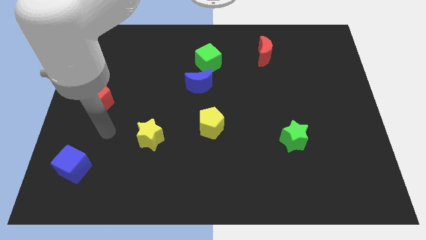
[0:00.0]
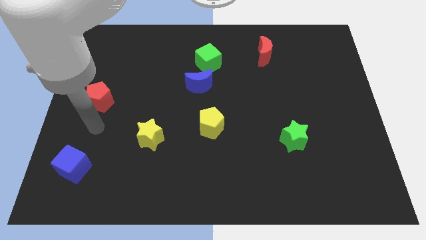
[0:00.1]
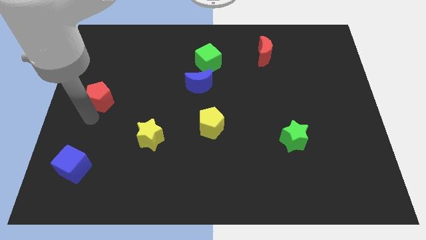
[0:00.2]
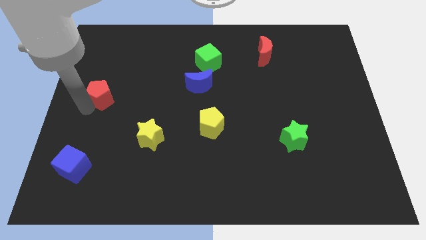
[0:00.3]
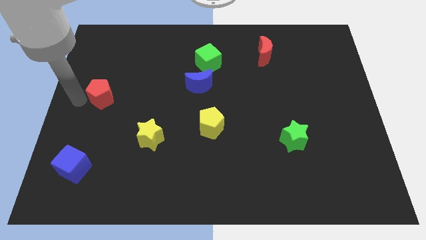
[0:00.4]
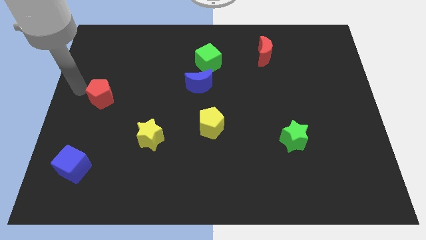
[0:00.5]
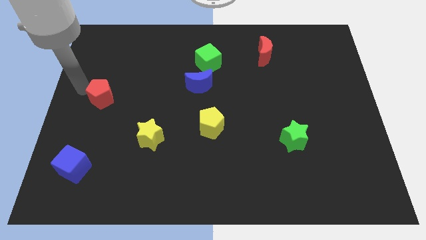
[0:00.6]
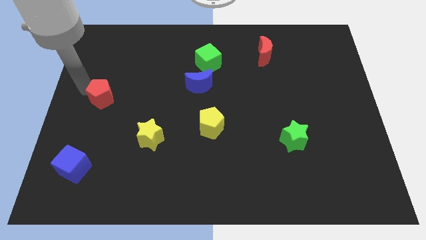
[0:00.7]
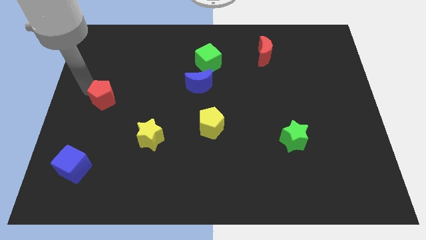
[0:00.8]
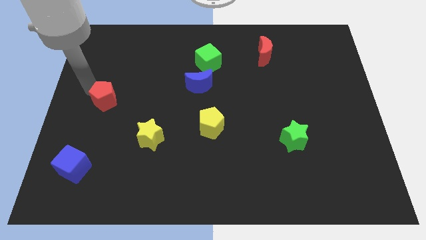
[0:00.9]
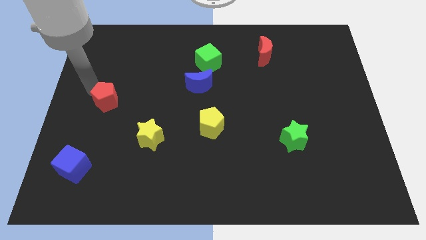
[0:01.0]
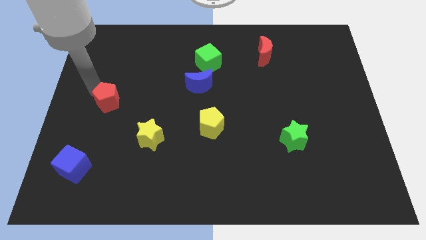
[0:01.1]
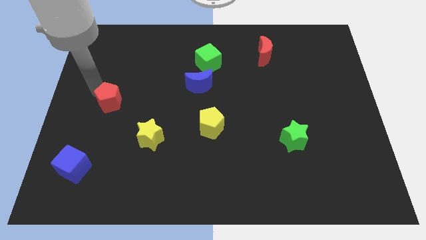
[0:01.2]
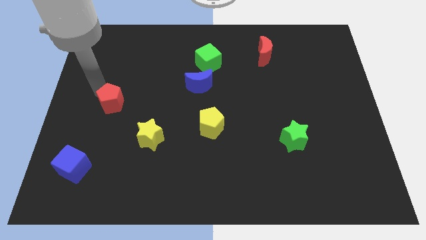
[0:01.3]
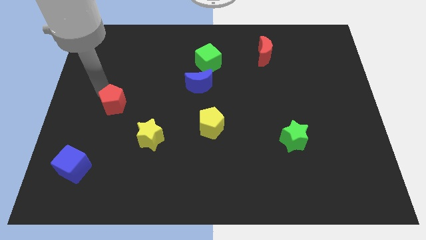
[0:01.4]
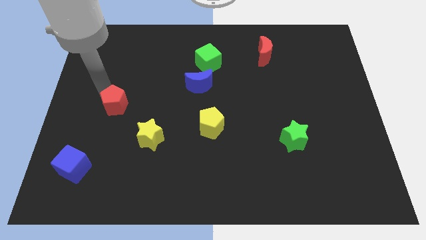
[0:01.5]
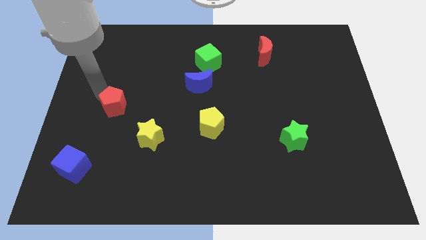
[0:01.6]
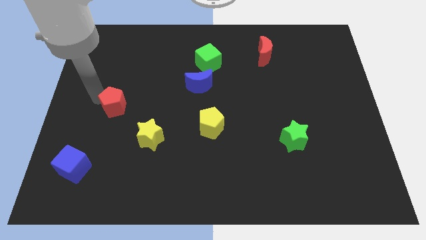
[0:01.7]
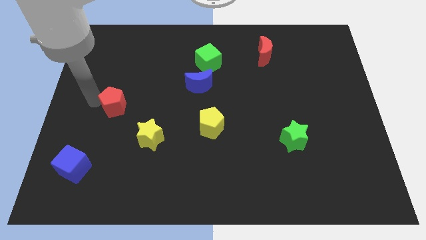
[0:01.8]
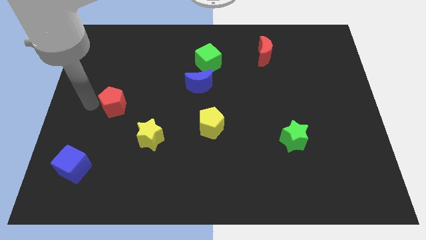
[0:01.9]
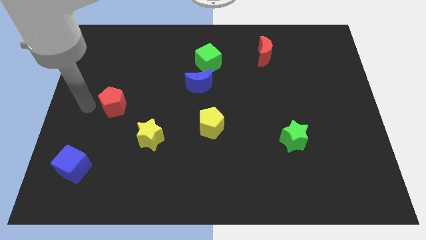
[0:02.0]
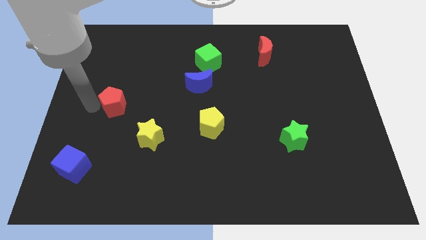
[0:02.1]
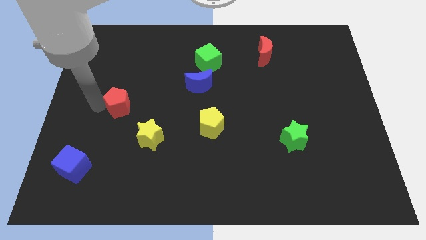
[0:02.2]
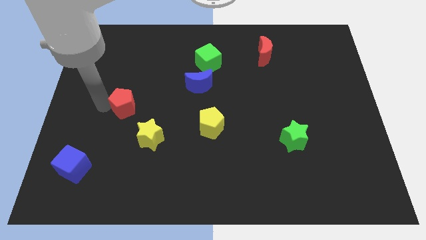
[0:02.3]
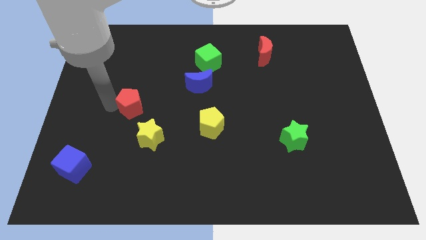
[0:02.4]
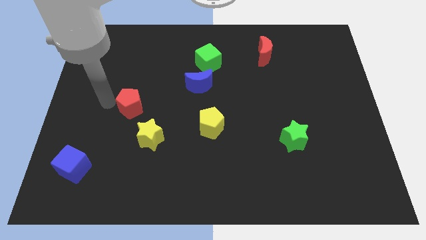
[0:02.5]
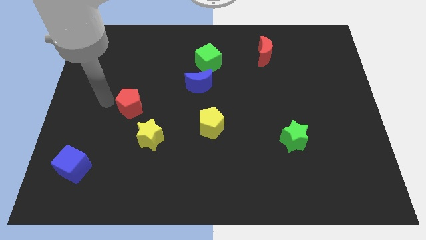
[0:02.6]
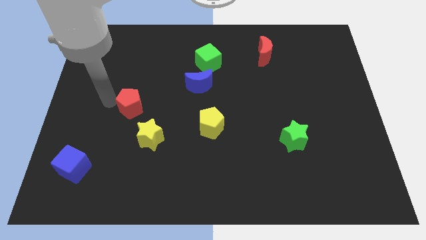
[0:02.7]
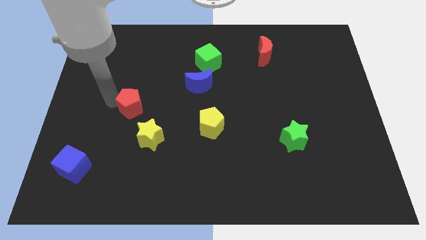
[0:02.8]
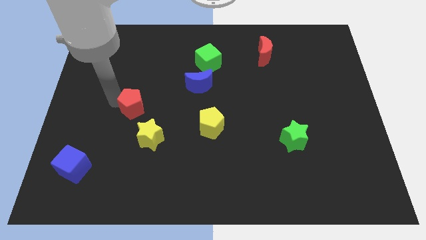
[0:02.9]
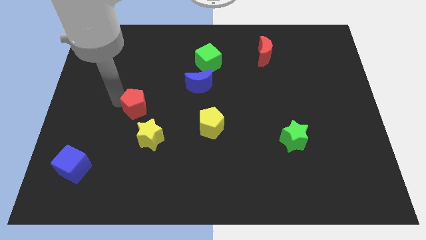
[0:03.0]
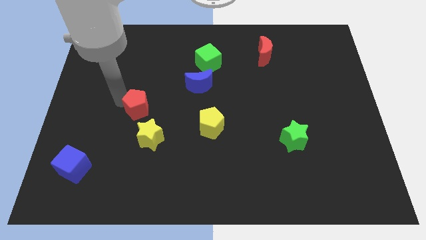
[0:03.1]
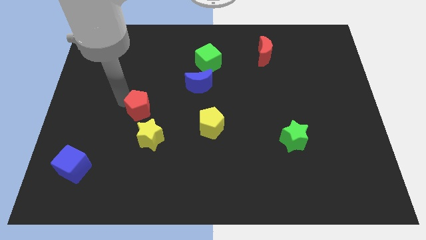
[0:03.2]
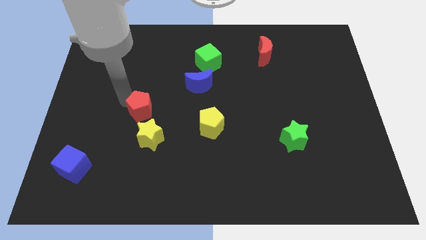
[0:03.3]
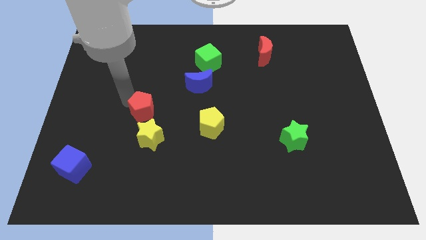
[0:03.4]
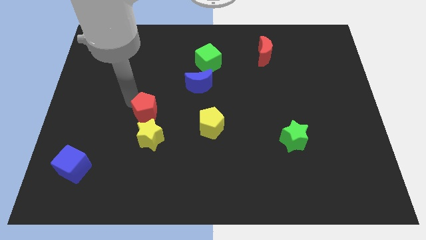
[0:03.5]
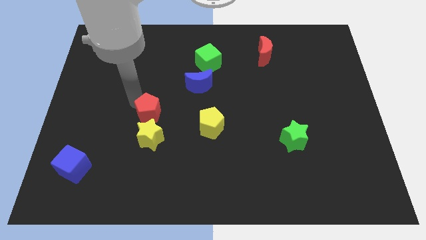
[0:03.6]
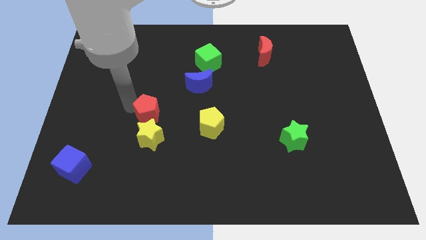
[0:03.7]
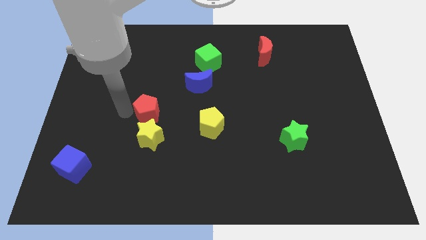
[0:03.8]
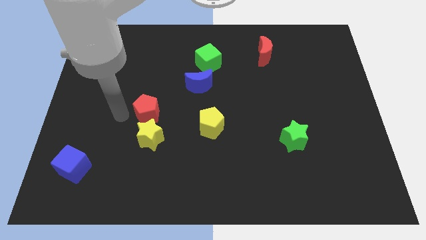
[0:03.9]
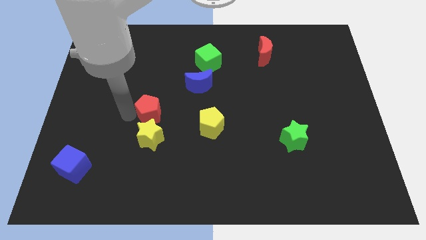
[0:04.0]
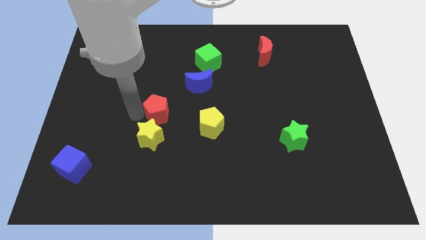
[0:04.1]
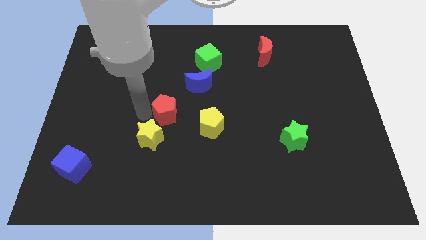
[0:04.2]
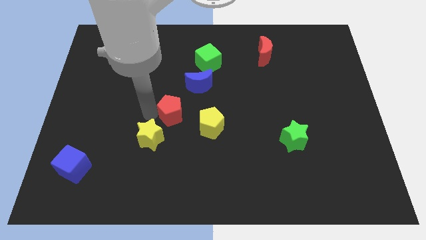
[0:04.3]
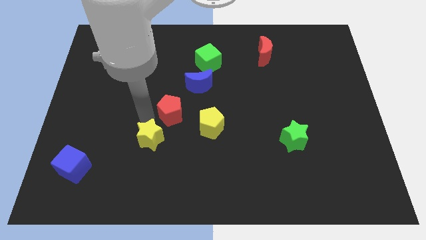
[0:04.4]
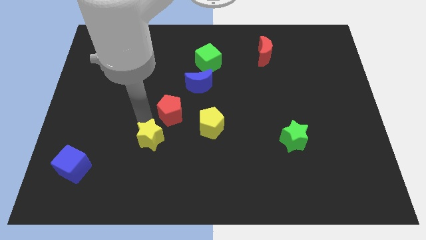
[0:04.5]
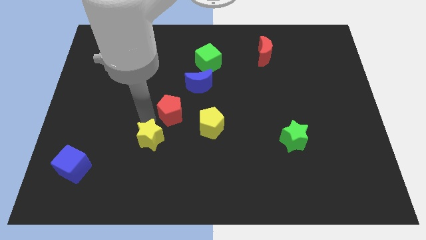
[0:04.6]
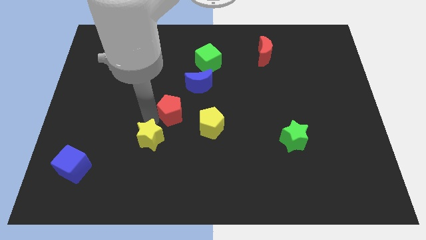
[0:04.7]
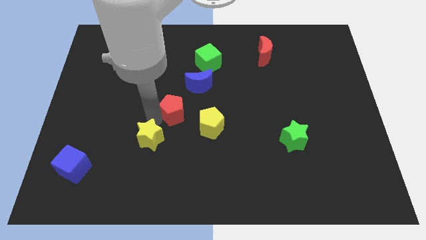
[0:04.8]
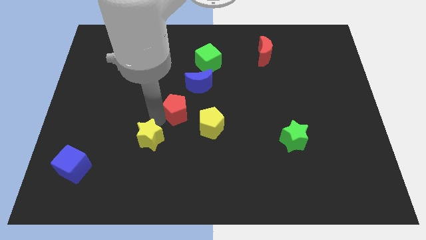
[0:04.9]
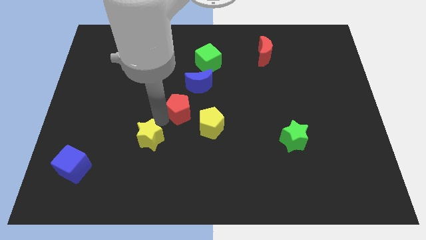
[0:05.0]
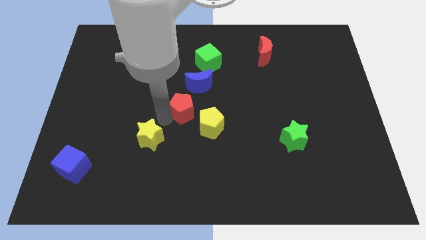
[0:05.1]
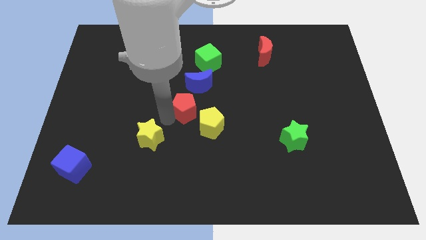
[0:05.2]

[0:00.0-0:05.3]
slide the red pentagon to the right

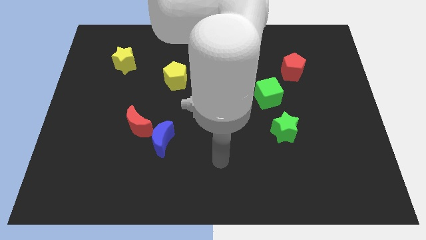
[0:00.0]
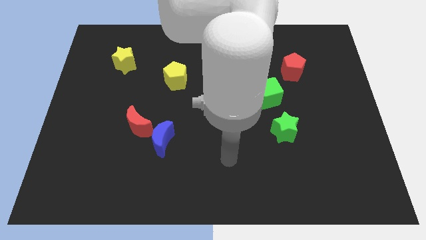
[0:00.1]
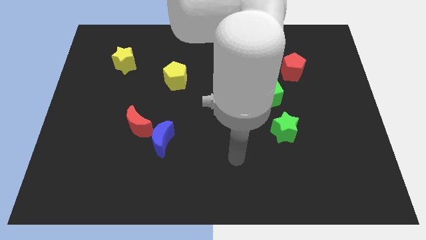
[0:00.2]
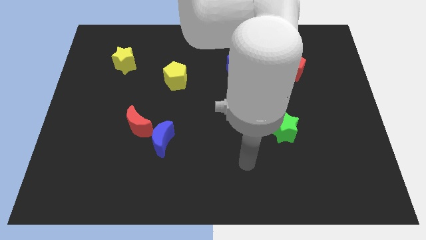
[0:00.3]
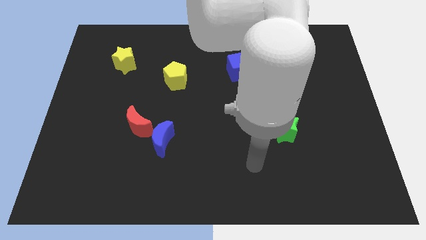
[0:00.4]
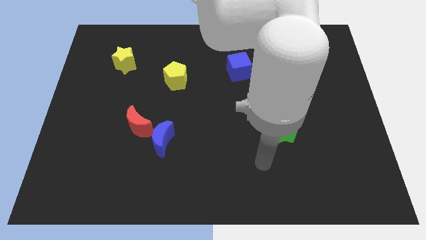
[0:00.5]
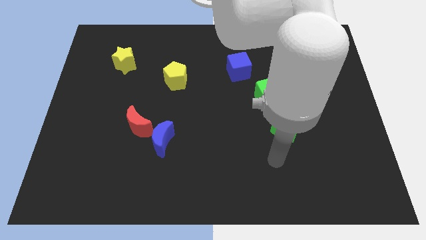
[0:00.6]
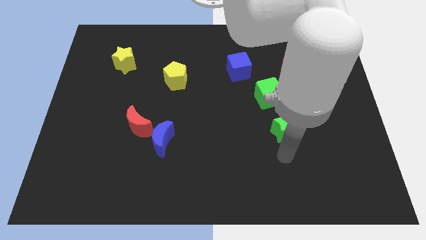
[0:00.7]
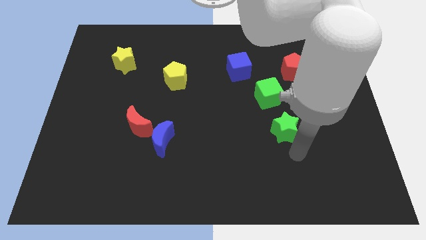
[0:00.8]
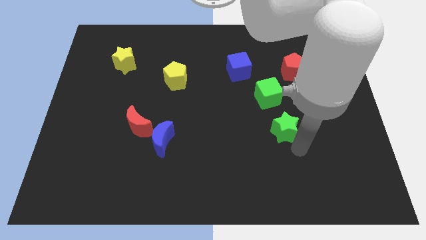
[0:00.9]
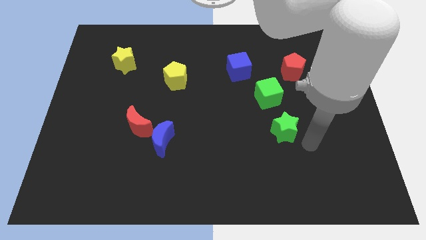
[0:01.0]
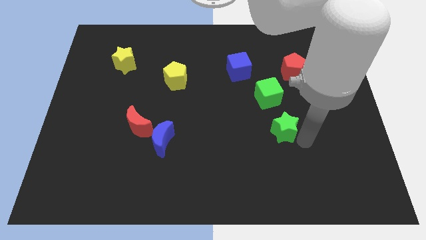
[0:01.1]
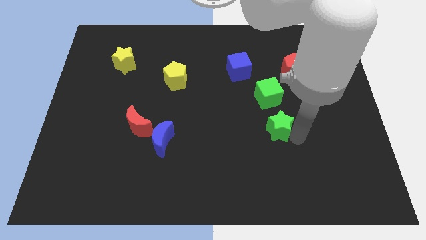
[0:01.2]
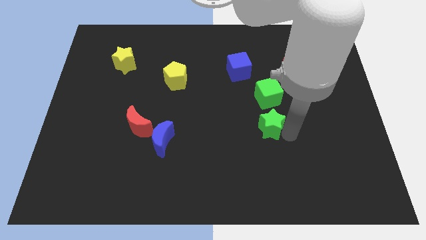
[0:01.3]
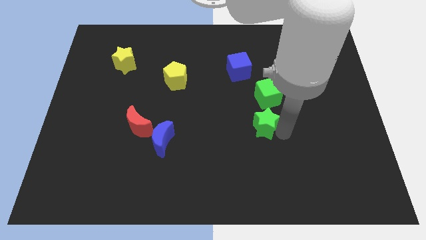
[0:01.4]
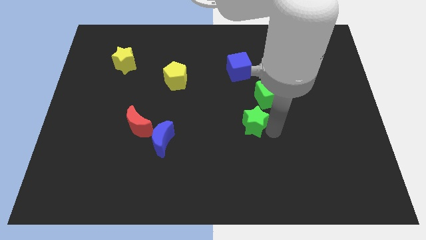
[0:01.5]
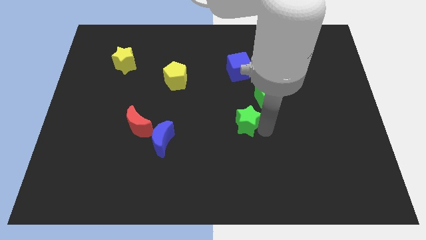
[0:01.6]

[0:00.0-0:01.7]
push the green star diagonally upwards and left a little

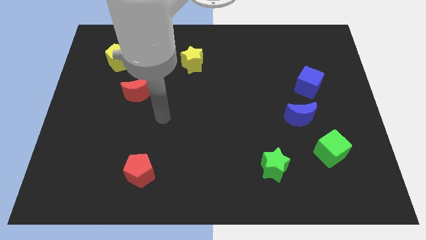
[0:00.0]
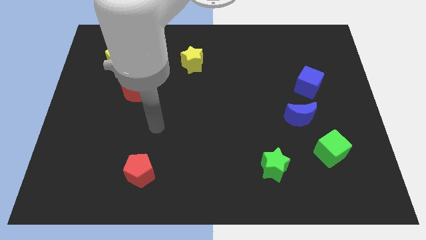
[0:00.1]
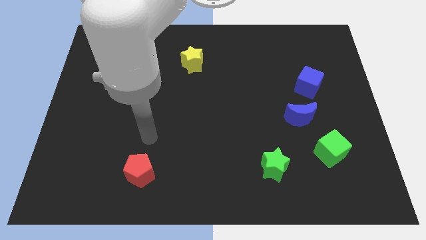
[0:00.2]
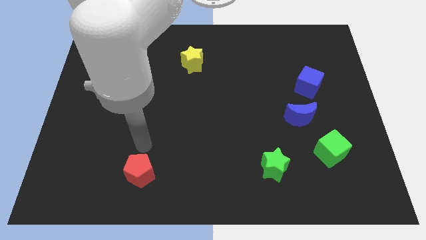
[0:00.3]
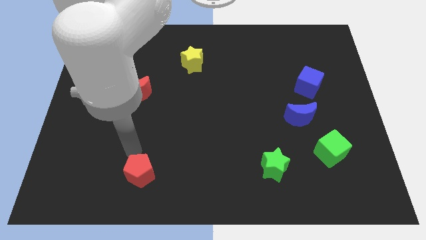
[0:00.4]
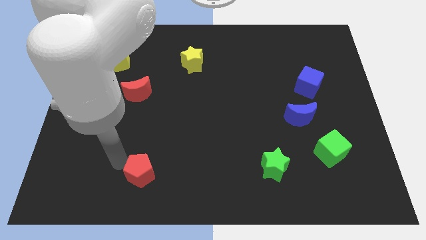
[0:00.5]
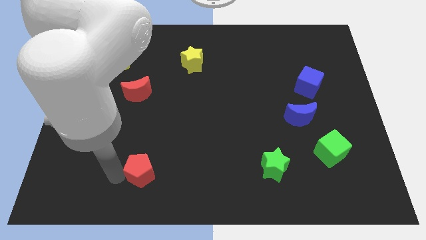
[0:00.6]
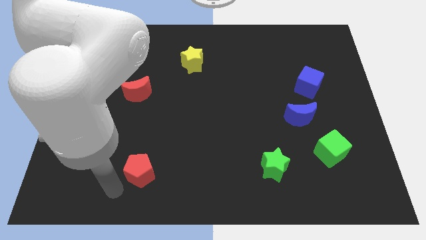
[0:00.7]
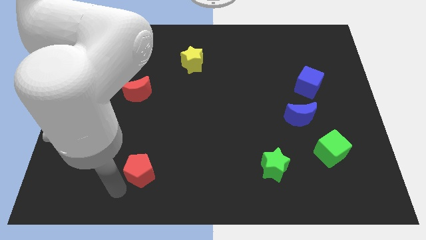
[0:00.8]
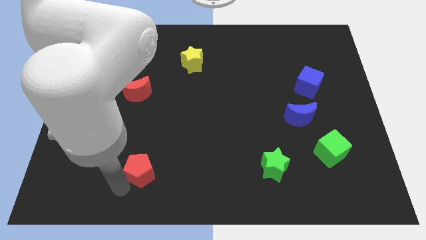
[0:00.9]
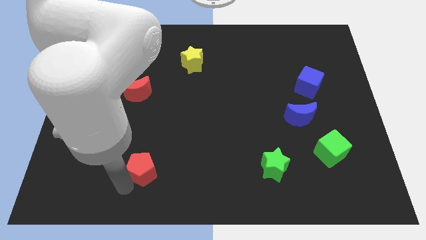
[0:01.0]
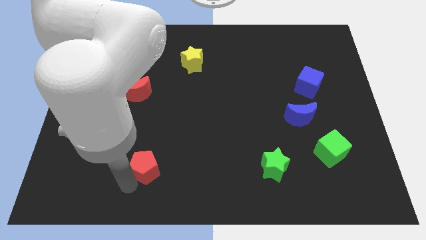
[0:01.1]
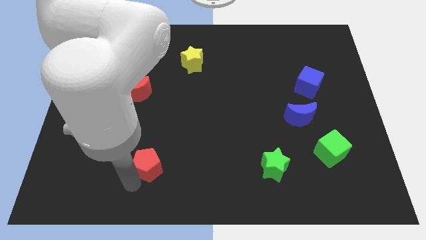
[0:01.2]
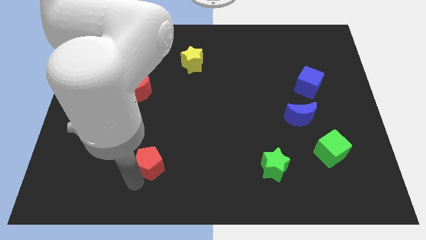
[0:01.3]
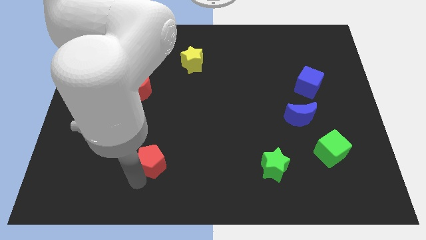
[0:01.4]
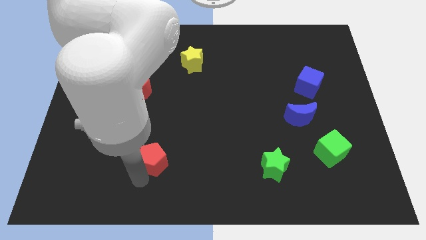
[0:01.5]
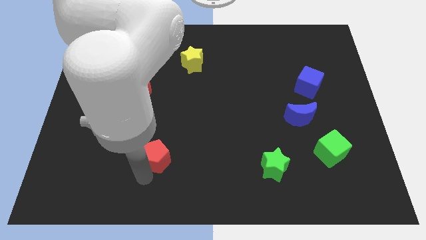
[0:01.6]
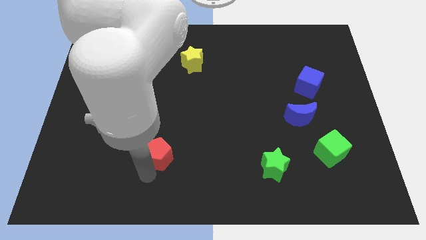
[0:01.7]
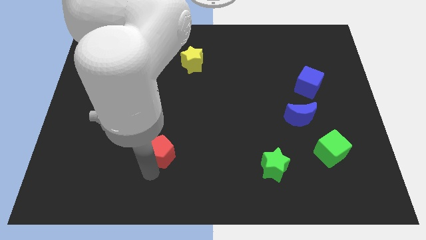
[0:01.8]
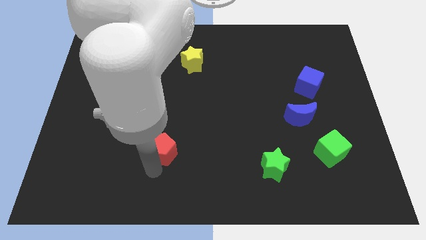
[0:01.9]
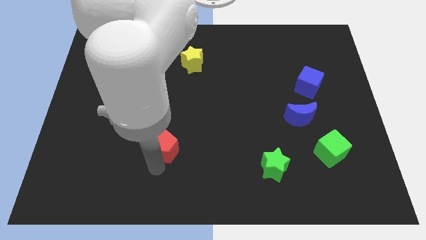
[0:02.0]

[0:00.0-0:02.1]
slide the red pentagon a bit upwards and to the right
